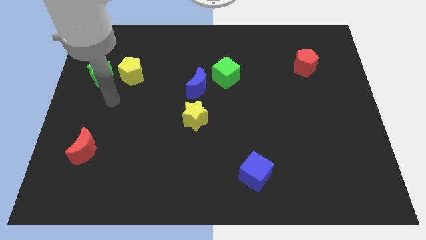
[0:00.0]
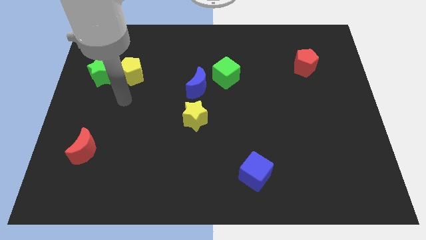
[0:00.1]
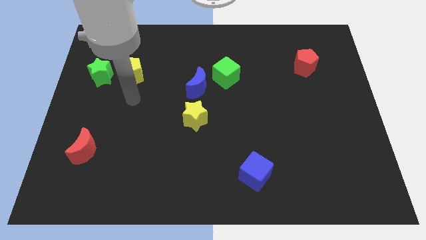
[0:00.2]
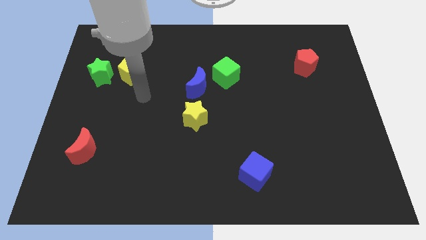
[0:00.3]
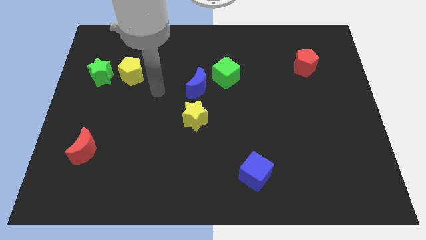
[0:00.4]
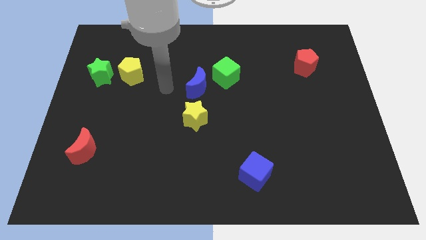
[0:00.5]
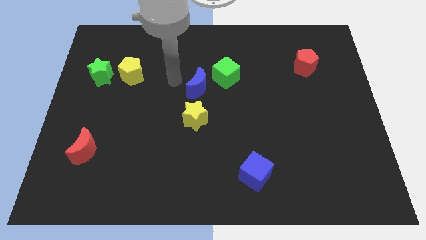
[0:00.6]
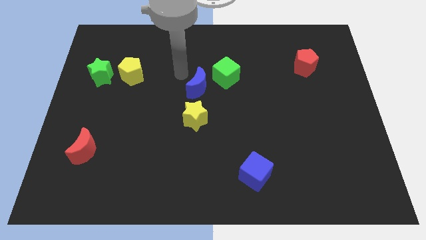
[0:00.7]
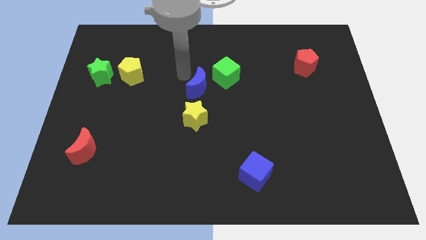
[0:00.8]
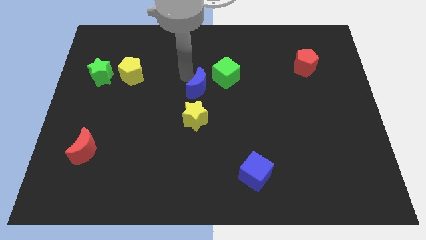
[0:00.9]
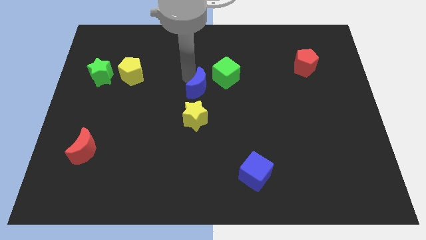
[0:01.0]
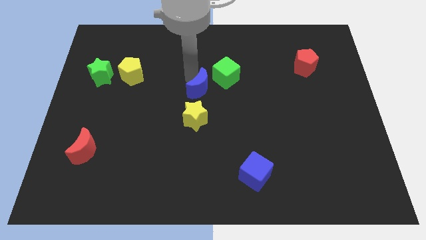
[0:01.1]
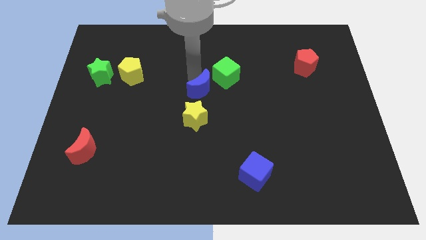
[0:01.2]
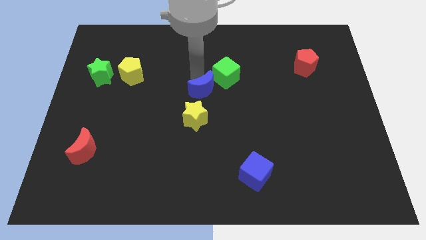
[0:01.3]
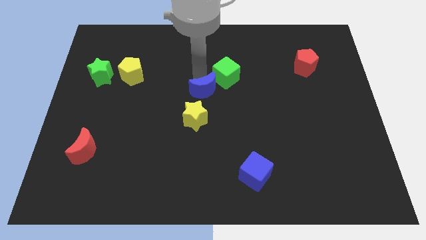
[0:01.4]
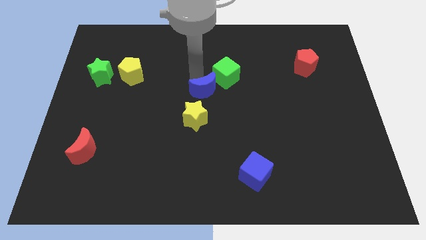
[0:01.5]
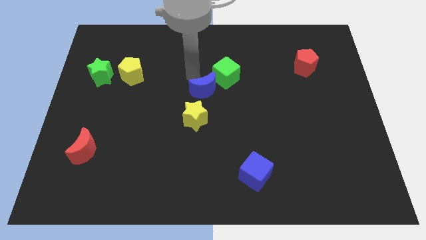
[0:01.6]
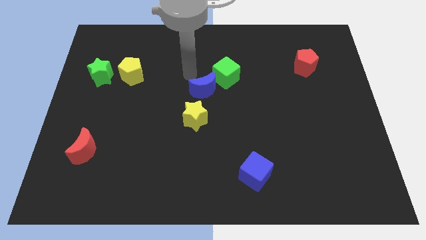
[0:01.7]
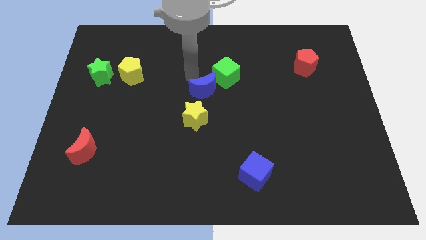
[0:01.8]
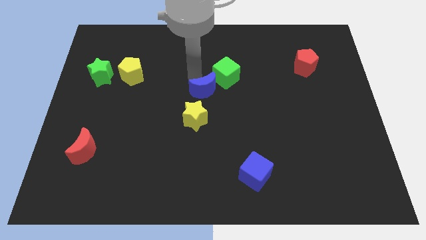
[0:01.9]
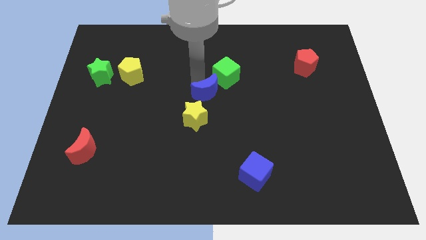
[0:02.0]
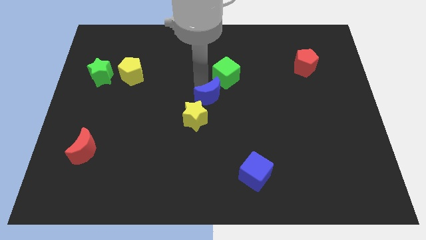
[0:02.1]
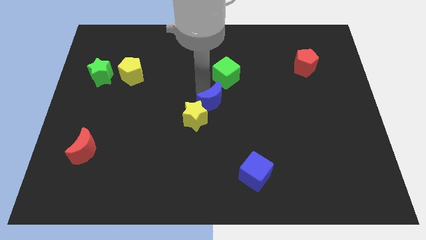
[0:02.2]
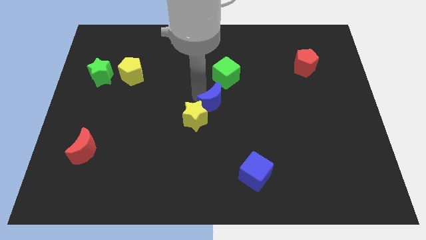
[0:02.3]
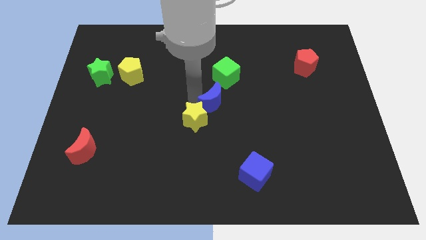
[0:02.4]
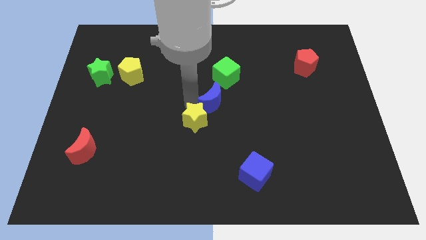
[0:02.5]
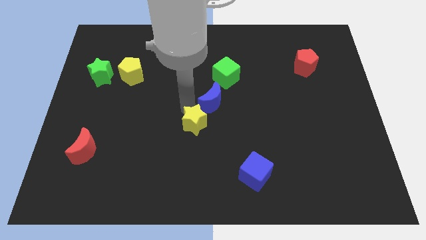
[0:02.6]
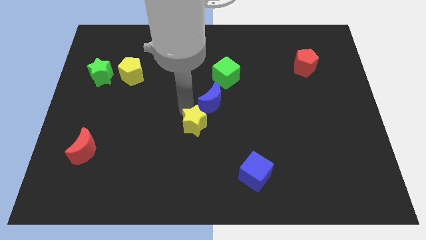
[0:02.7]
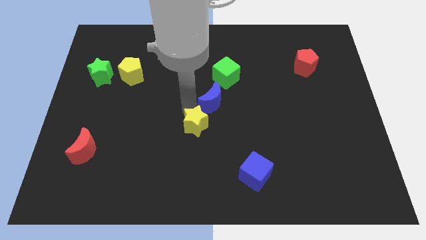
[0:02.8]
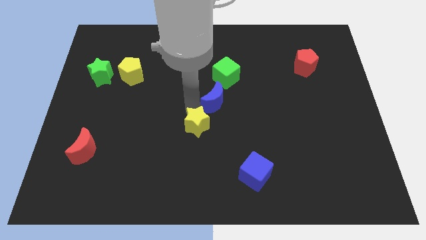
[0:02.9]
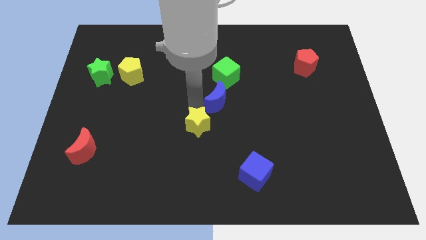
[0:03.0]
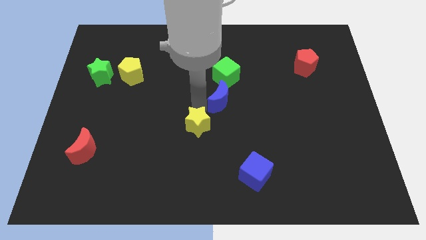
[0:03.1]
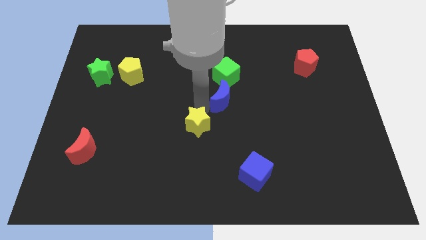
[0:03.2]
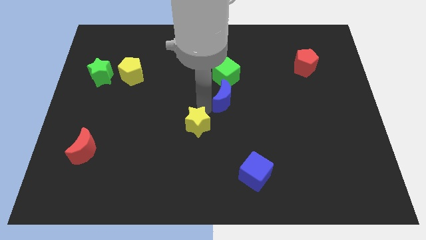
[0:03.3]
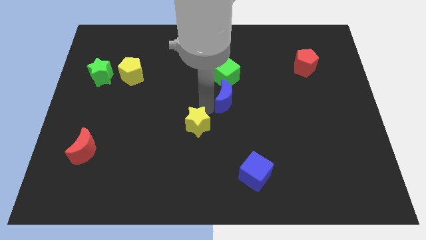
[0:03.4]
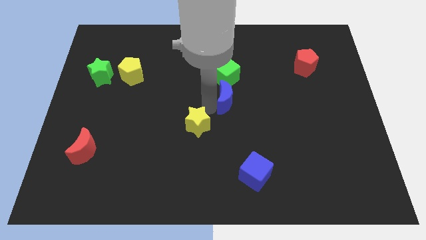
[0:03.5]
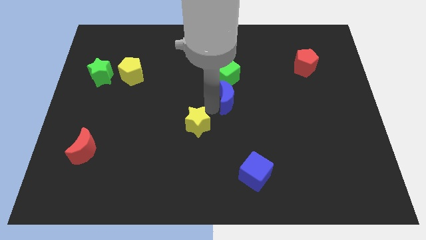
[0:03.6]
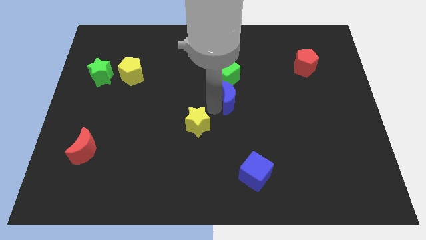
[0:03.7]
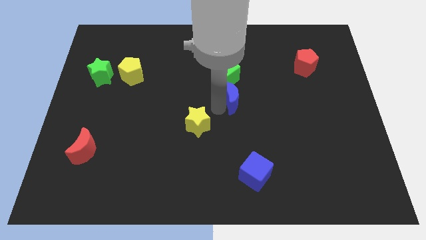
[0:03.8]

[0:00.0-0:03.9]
slide the blue moon a little bit right

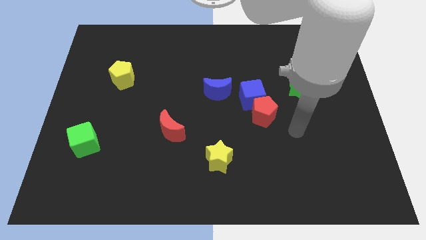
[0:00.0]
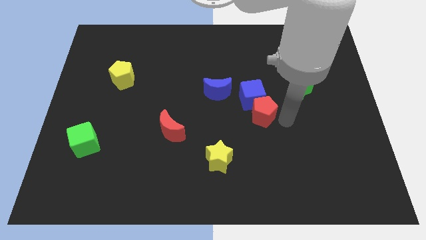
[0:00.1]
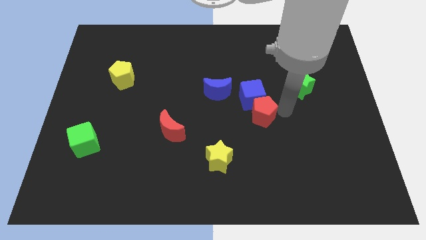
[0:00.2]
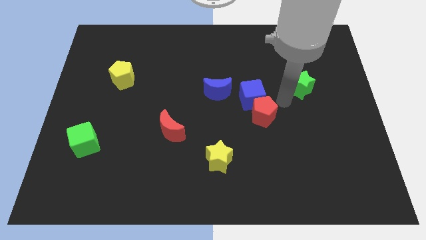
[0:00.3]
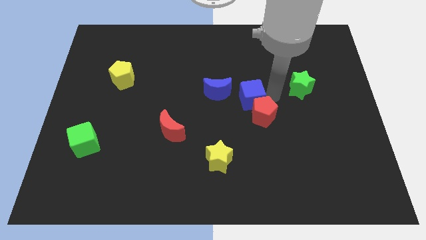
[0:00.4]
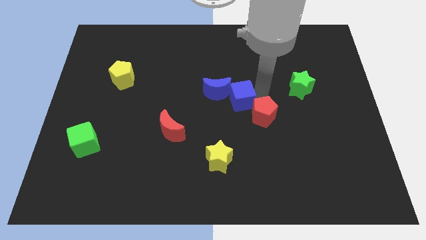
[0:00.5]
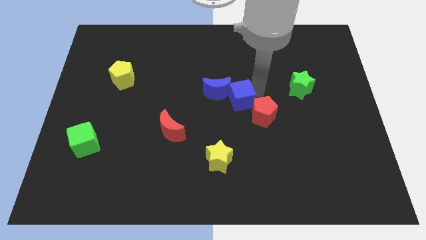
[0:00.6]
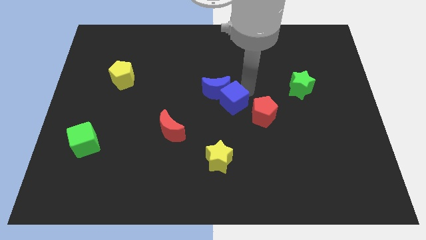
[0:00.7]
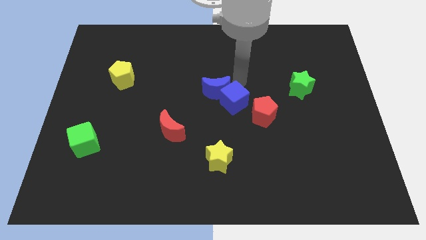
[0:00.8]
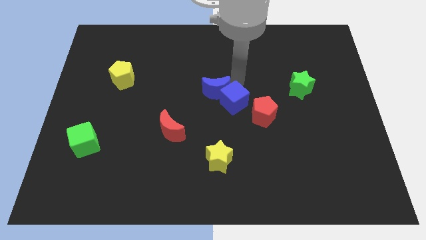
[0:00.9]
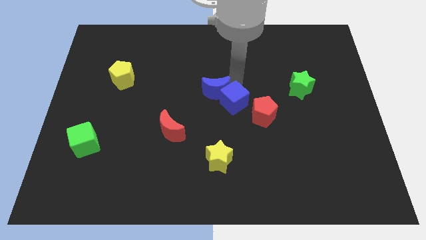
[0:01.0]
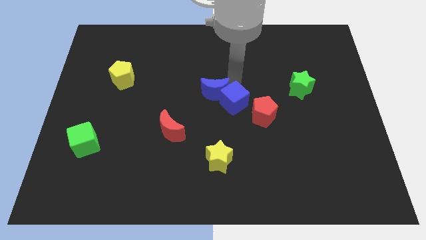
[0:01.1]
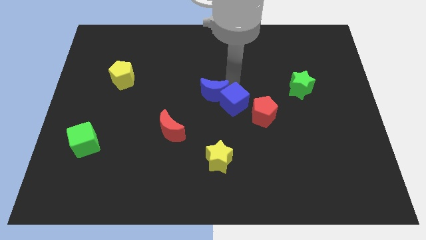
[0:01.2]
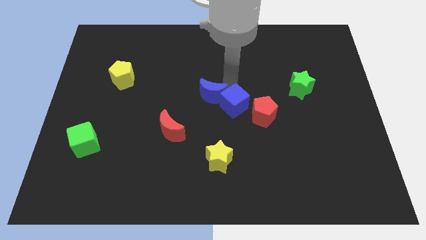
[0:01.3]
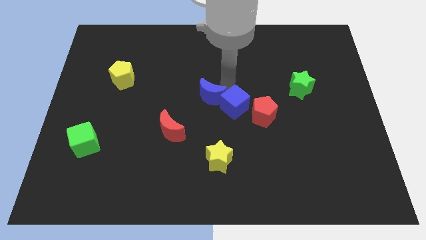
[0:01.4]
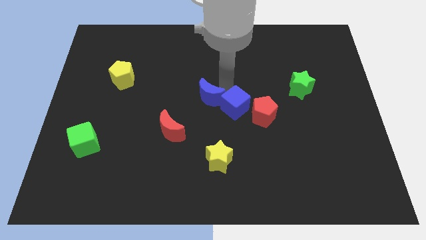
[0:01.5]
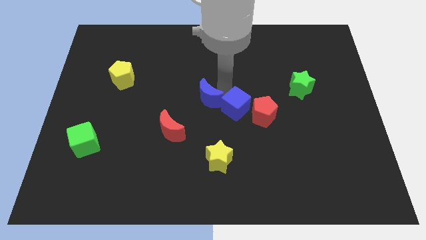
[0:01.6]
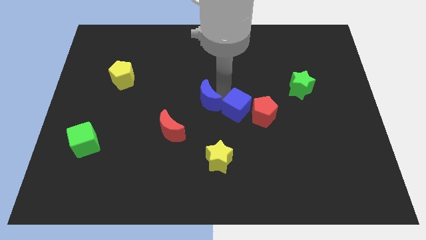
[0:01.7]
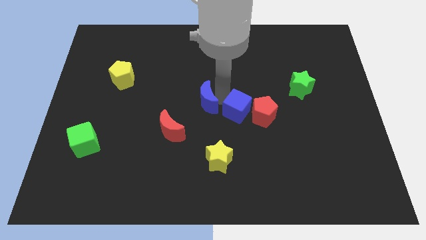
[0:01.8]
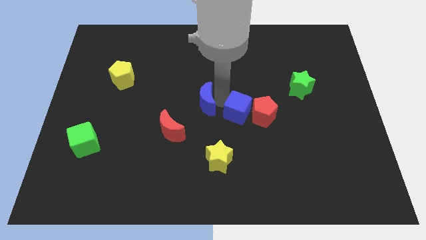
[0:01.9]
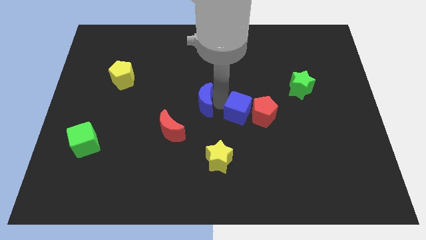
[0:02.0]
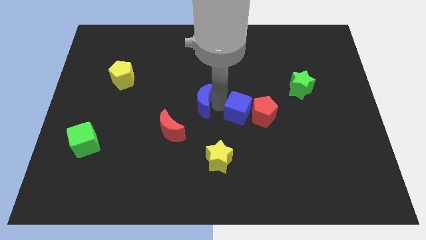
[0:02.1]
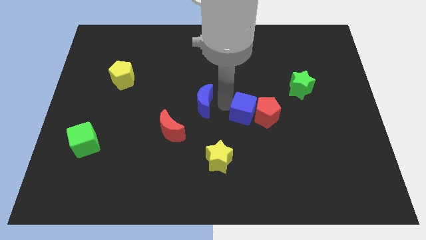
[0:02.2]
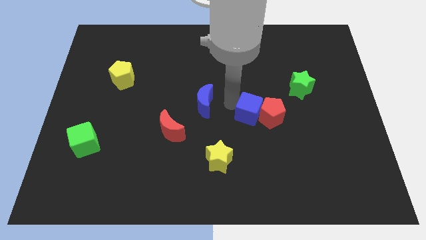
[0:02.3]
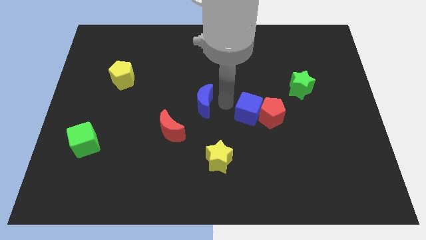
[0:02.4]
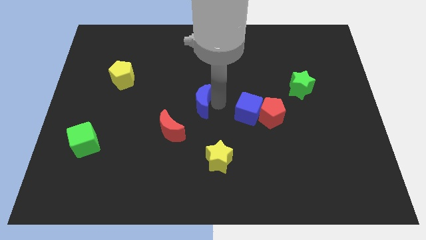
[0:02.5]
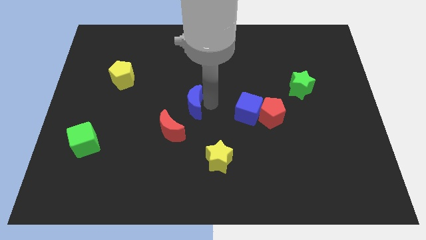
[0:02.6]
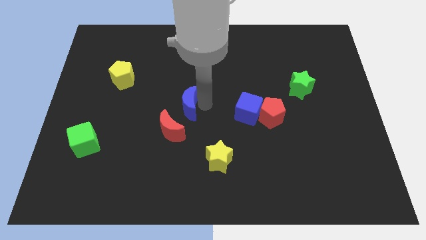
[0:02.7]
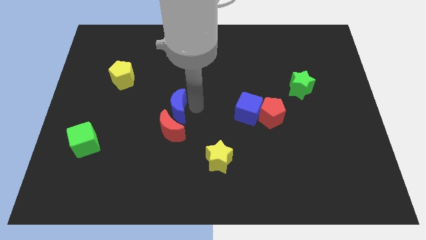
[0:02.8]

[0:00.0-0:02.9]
move the blue moon left a little

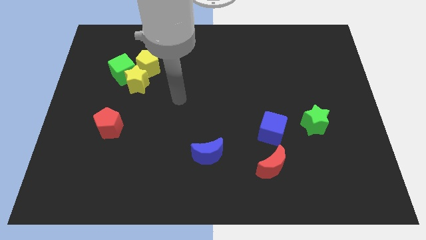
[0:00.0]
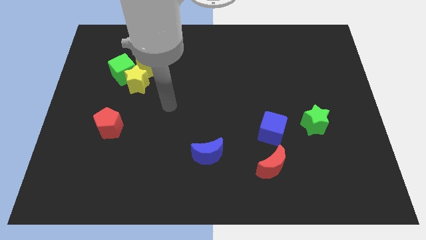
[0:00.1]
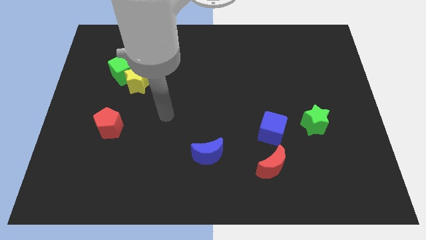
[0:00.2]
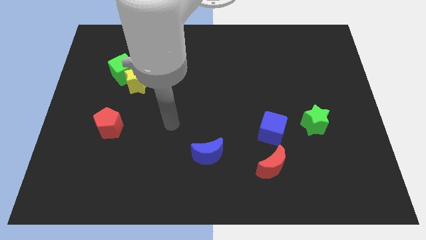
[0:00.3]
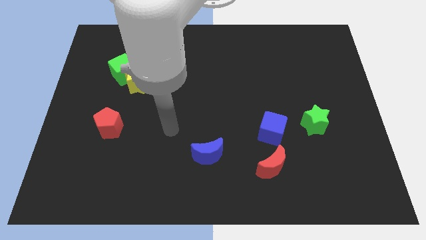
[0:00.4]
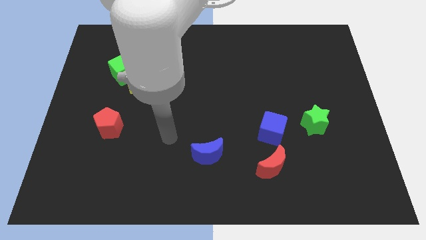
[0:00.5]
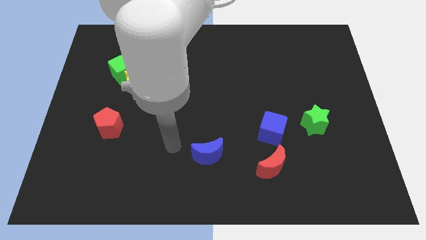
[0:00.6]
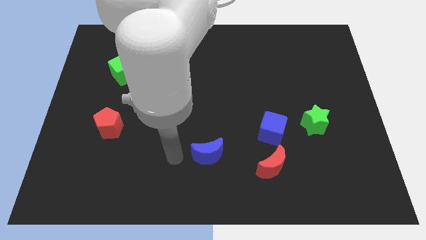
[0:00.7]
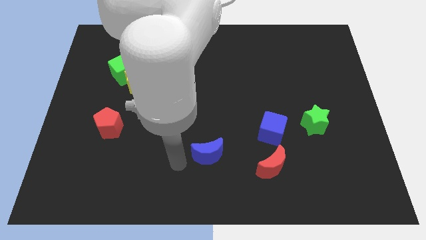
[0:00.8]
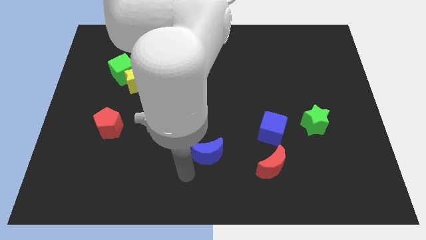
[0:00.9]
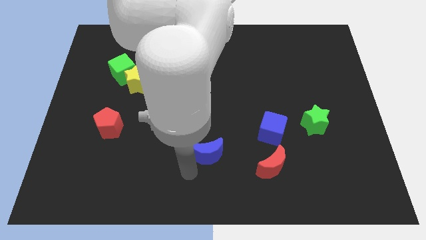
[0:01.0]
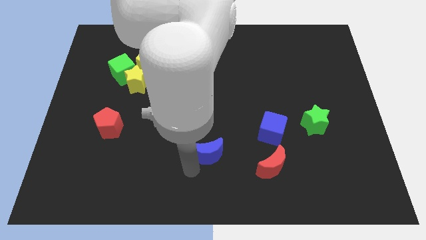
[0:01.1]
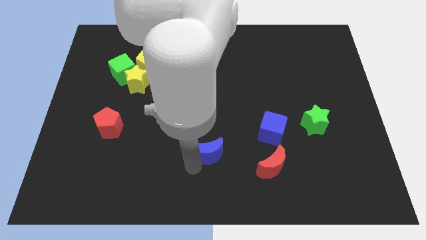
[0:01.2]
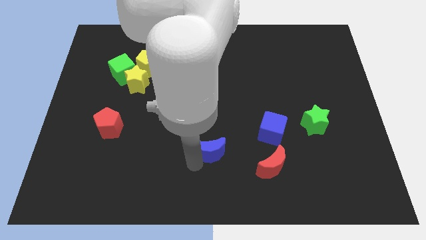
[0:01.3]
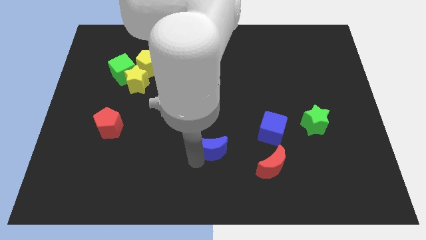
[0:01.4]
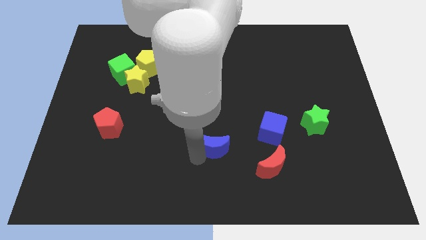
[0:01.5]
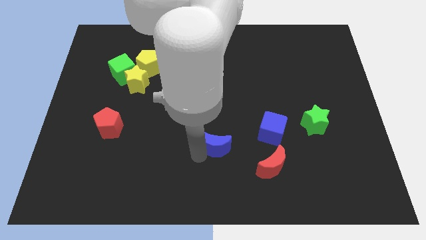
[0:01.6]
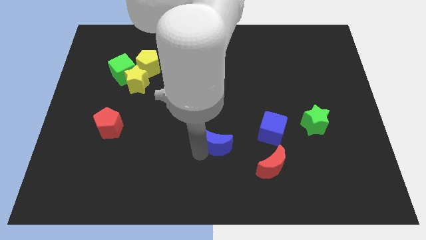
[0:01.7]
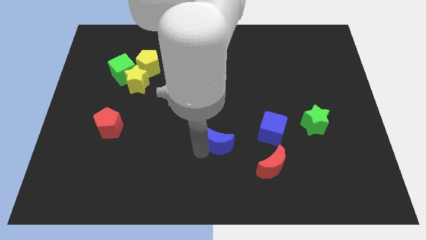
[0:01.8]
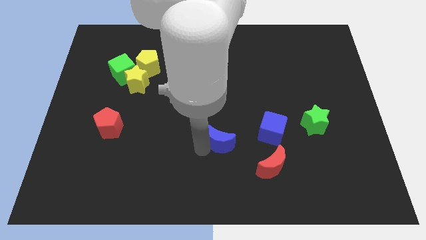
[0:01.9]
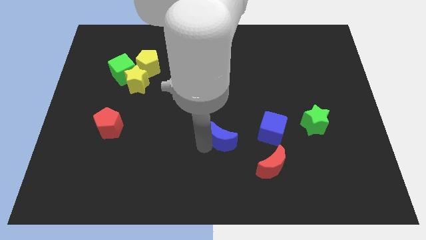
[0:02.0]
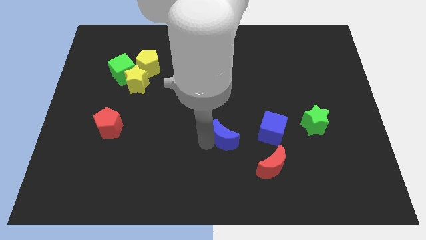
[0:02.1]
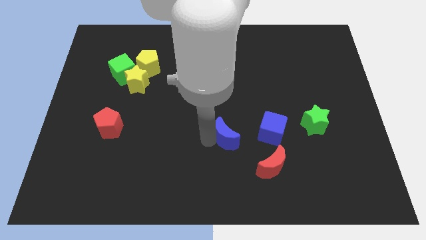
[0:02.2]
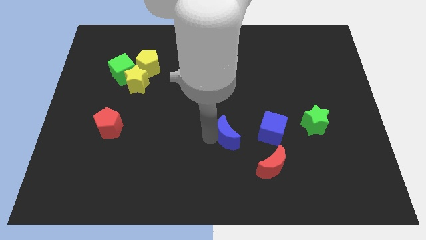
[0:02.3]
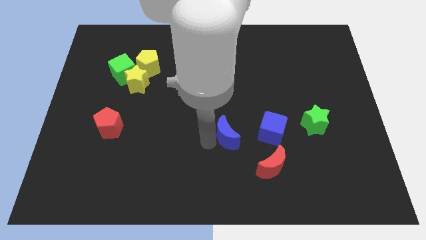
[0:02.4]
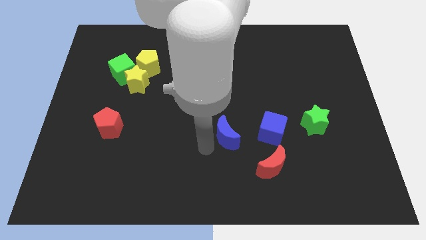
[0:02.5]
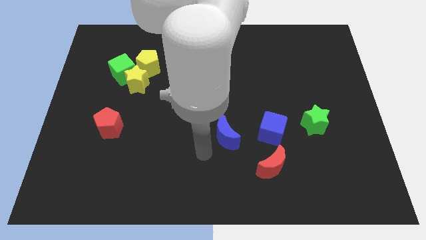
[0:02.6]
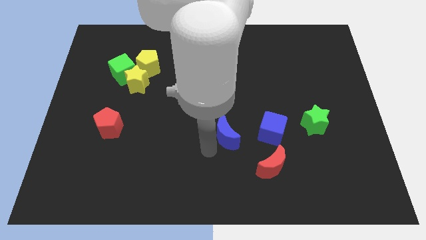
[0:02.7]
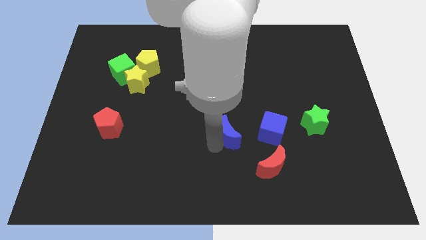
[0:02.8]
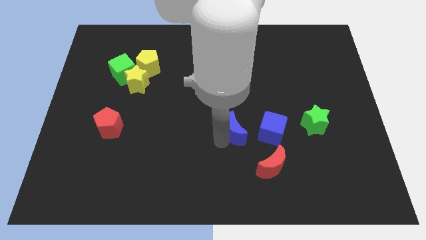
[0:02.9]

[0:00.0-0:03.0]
slightly move the blue moon diagonally upwards and to the right
